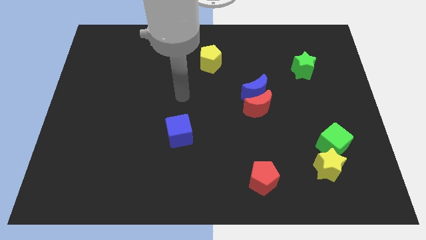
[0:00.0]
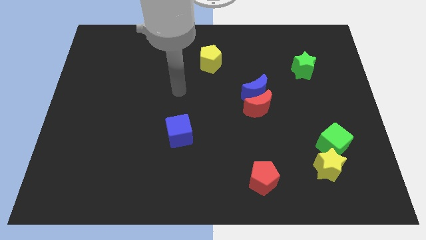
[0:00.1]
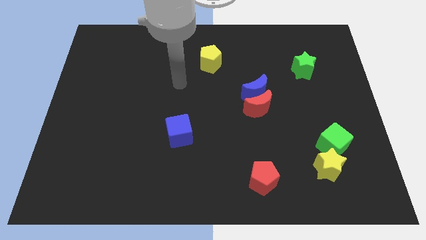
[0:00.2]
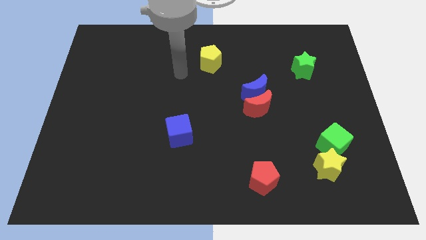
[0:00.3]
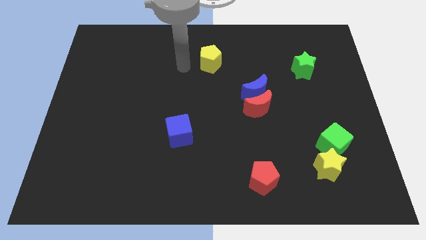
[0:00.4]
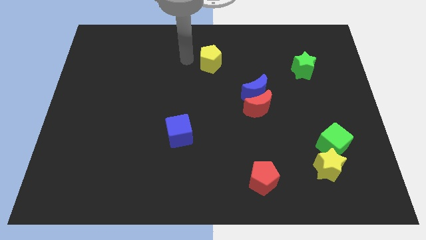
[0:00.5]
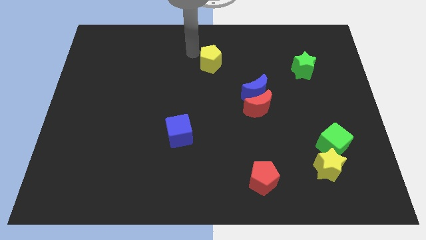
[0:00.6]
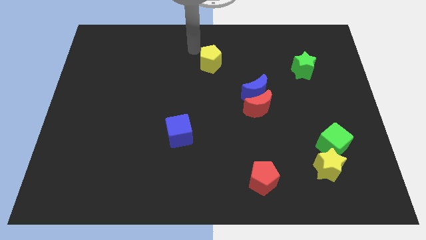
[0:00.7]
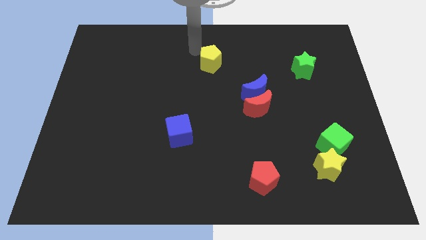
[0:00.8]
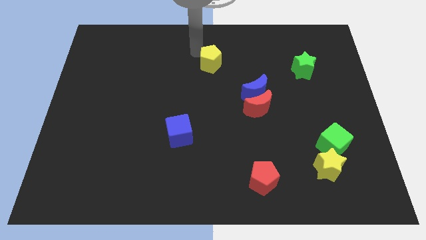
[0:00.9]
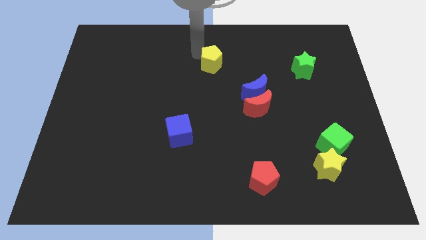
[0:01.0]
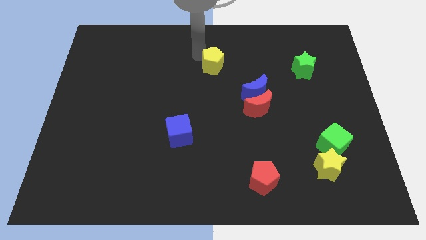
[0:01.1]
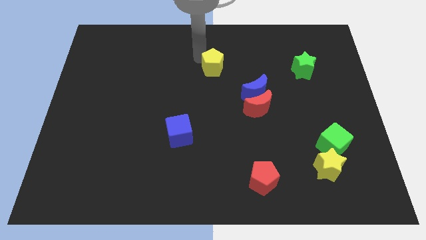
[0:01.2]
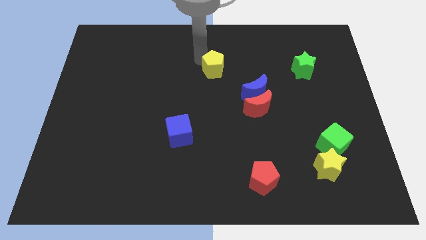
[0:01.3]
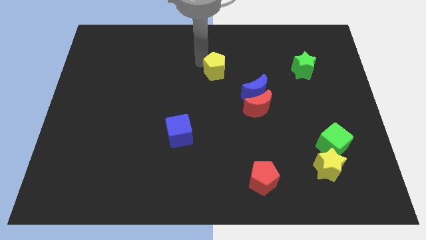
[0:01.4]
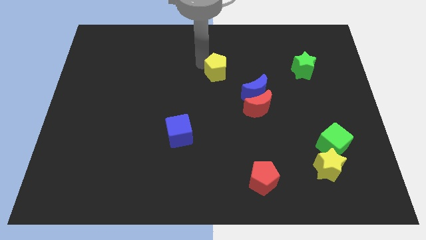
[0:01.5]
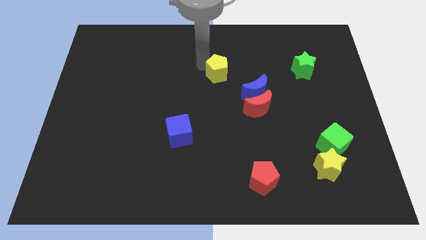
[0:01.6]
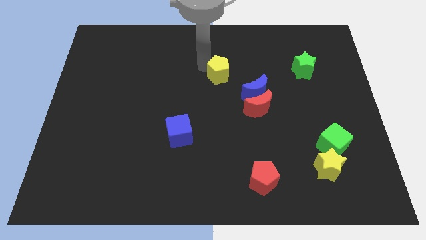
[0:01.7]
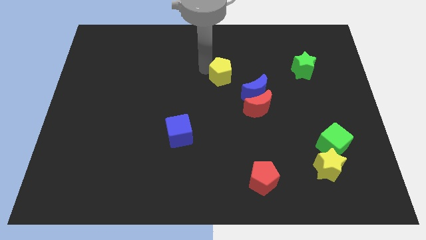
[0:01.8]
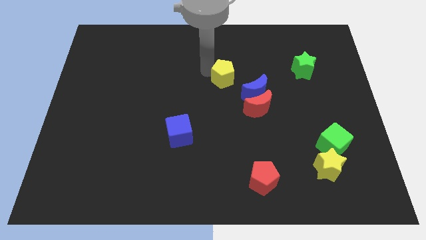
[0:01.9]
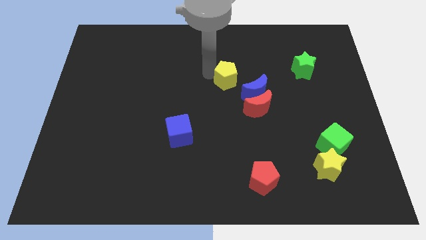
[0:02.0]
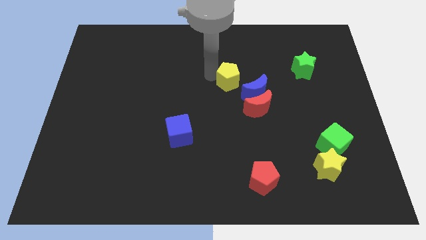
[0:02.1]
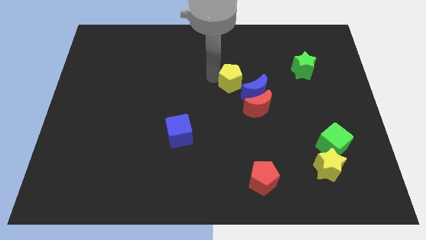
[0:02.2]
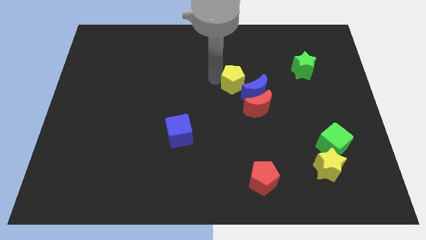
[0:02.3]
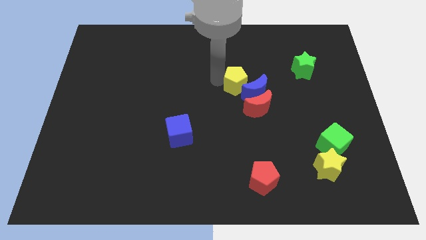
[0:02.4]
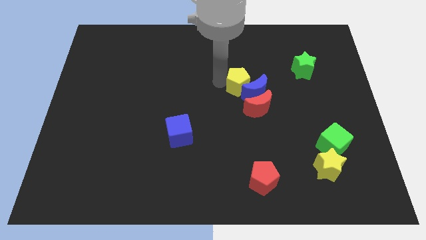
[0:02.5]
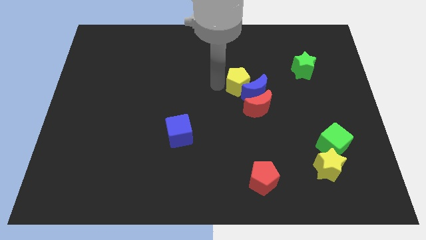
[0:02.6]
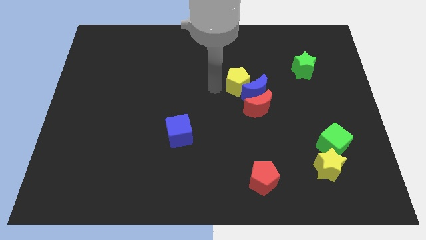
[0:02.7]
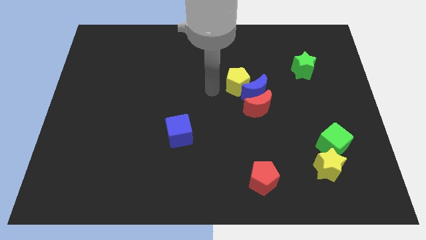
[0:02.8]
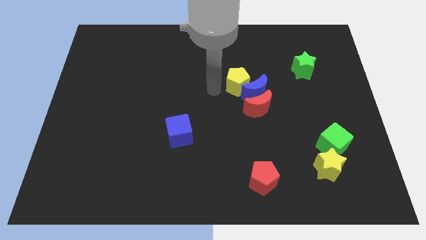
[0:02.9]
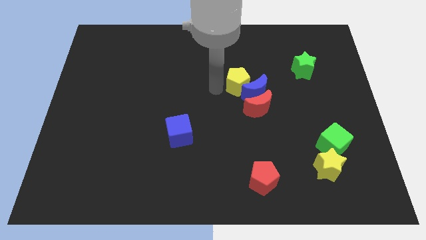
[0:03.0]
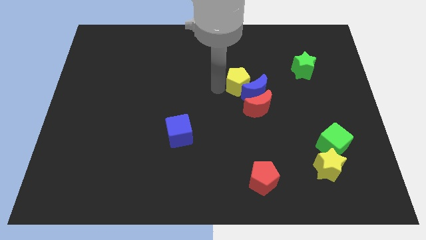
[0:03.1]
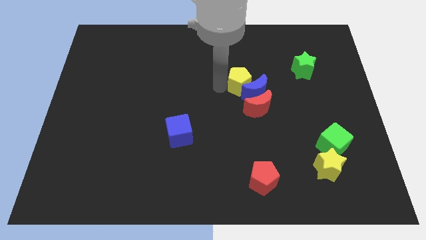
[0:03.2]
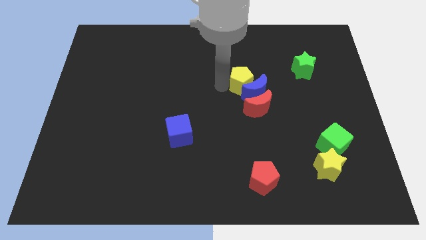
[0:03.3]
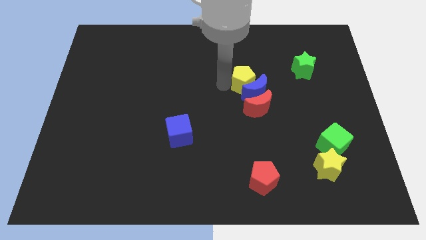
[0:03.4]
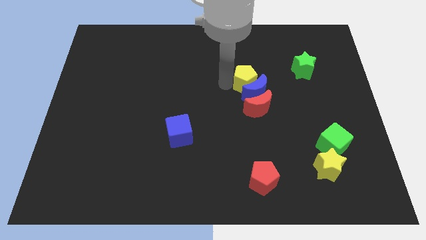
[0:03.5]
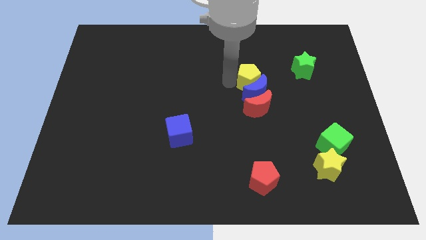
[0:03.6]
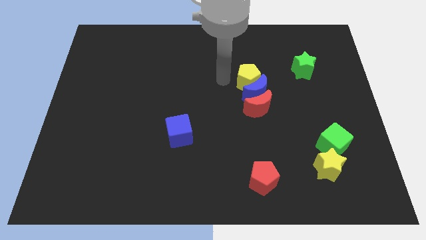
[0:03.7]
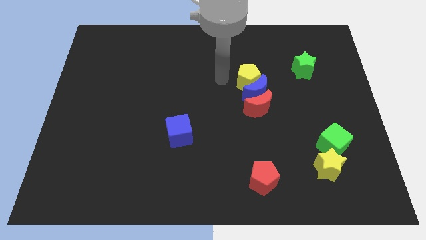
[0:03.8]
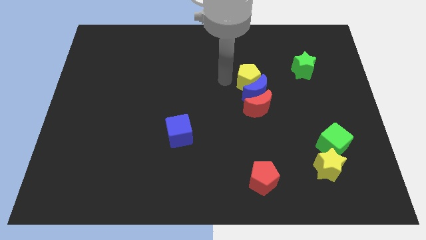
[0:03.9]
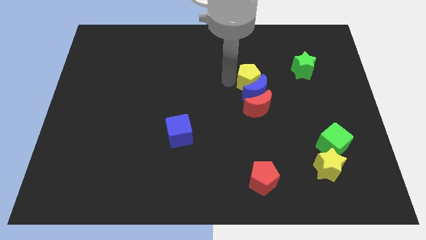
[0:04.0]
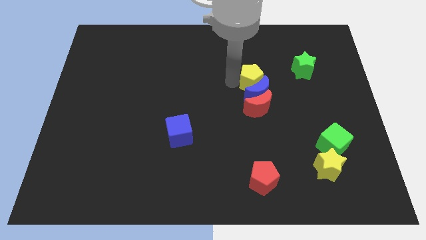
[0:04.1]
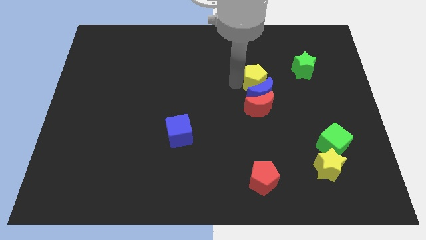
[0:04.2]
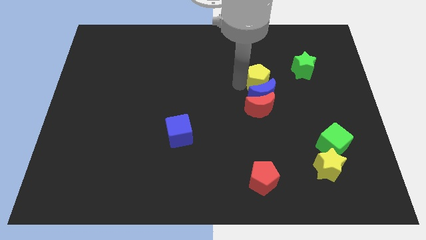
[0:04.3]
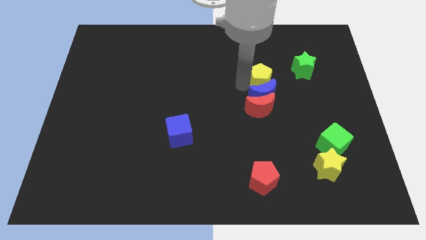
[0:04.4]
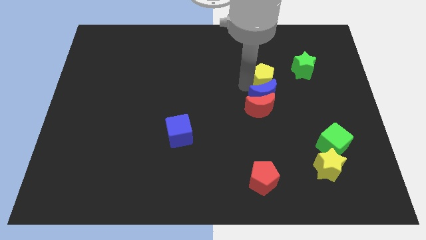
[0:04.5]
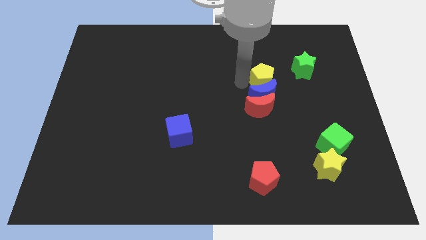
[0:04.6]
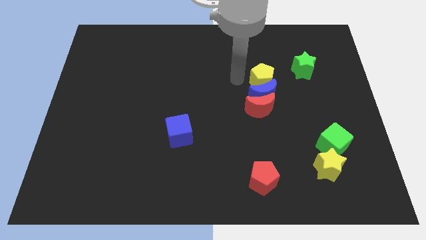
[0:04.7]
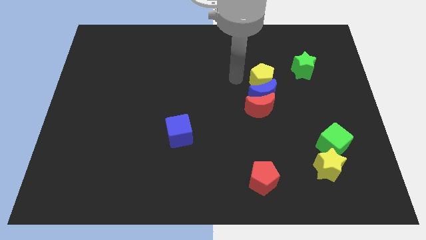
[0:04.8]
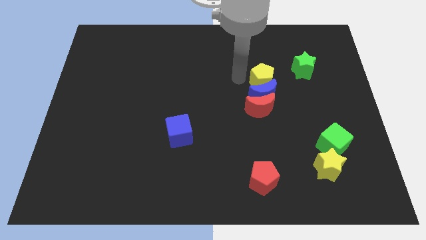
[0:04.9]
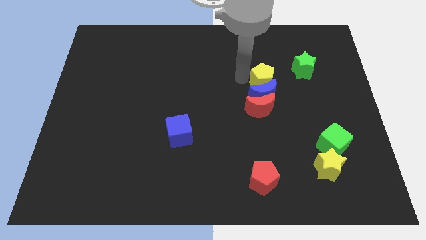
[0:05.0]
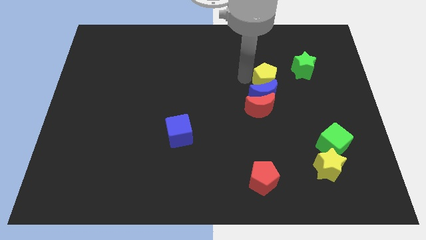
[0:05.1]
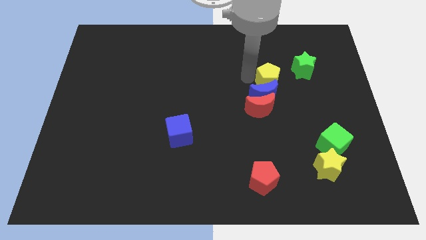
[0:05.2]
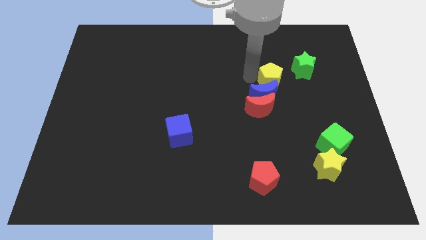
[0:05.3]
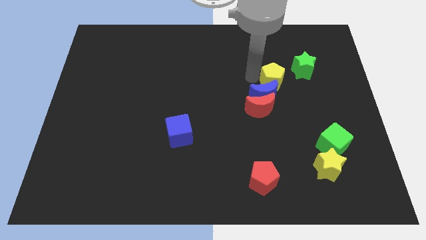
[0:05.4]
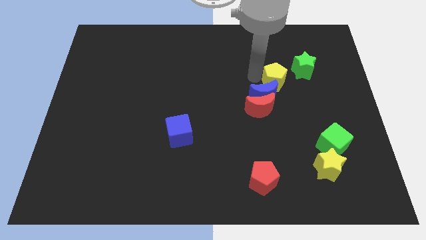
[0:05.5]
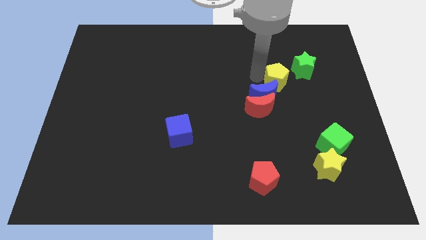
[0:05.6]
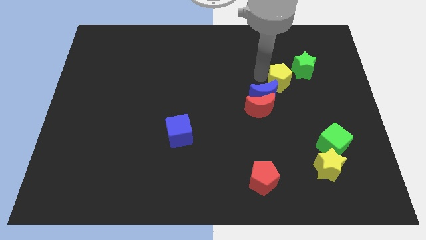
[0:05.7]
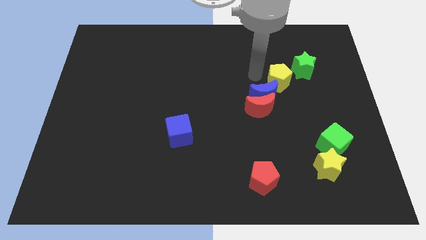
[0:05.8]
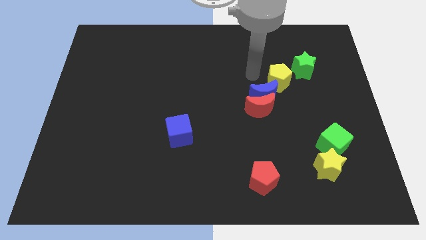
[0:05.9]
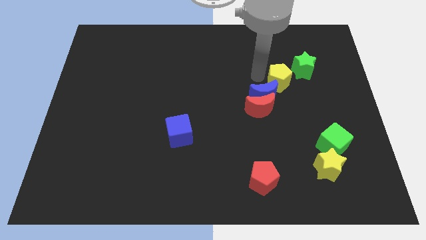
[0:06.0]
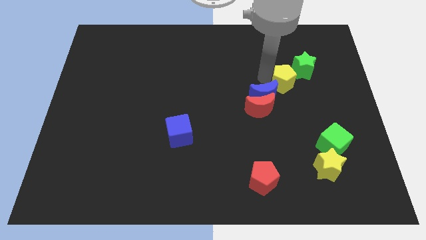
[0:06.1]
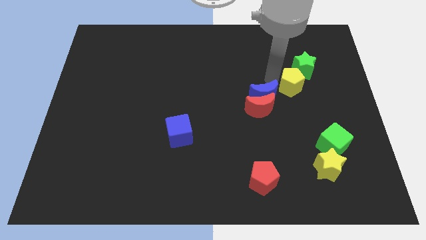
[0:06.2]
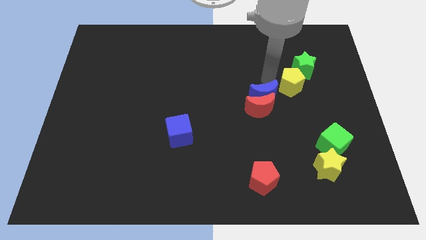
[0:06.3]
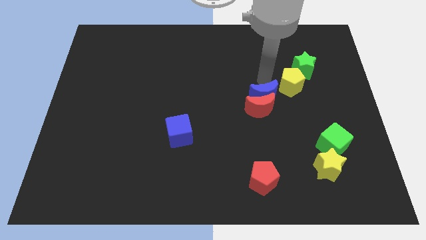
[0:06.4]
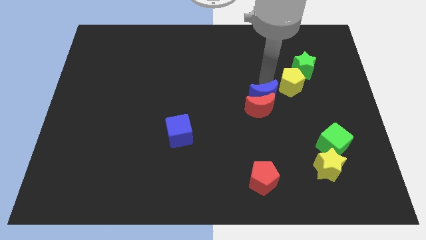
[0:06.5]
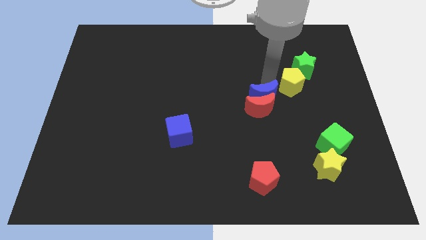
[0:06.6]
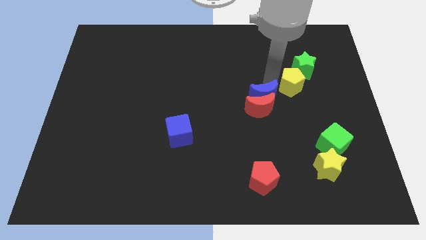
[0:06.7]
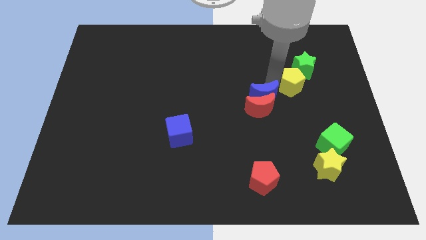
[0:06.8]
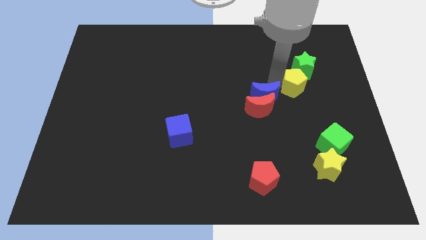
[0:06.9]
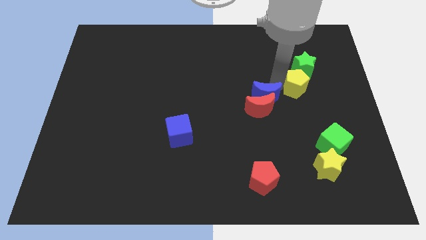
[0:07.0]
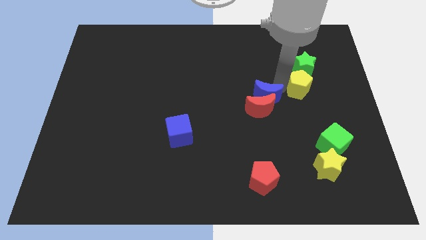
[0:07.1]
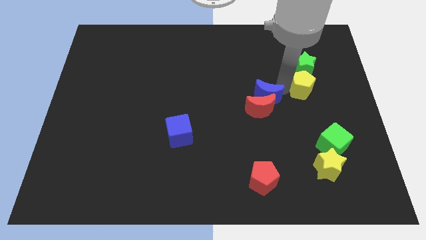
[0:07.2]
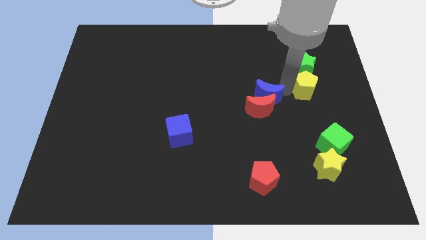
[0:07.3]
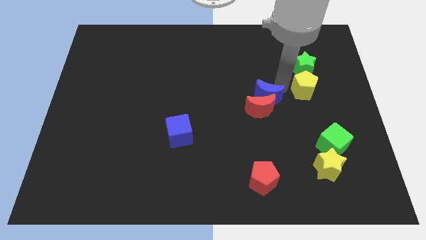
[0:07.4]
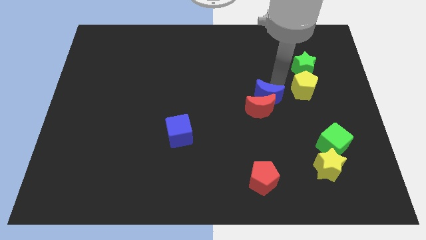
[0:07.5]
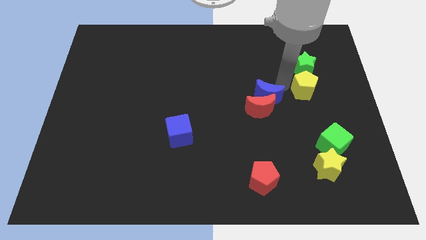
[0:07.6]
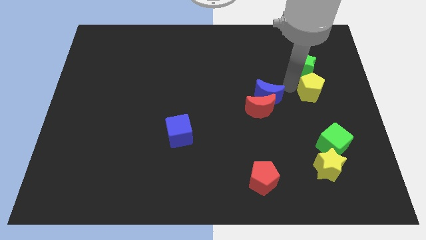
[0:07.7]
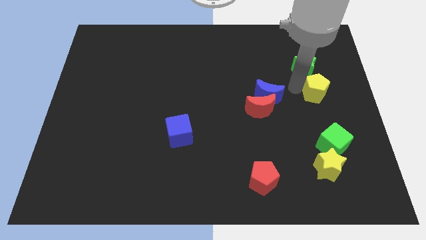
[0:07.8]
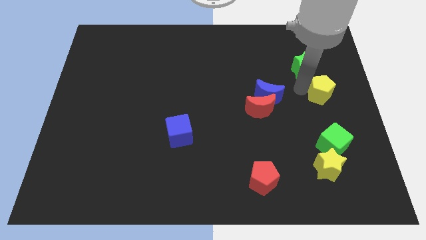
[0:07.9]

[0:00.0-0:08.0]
slide the yellow pentagon to the center right

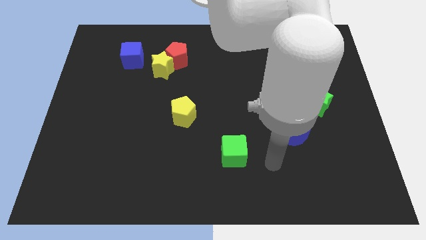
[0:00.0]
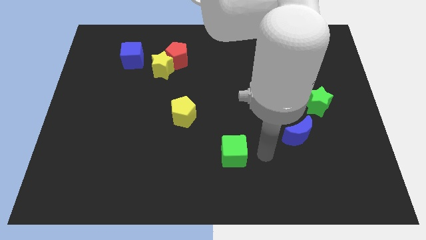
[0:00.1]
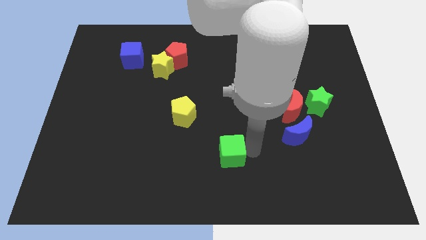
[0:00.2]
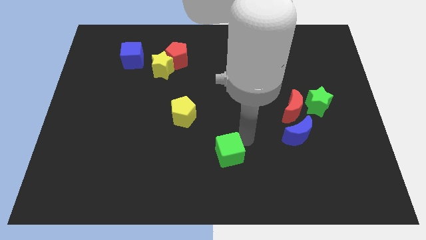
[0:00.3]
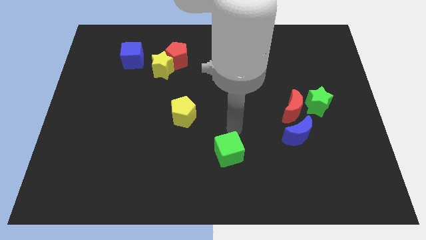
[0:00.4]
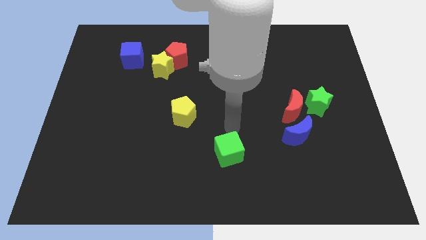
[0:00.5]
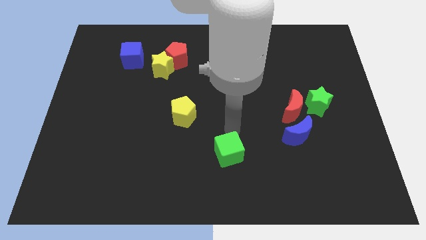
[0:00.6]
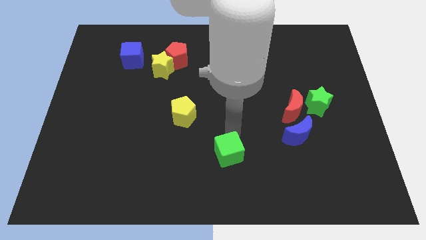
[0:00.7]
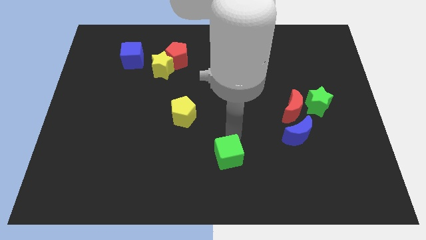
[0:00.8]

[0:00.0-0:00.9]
slide the green cube to the bottom
